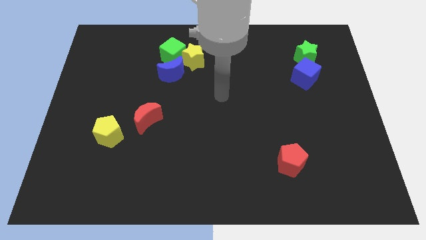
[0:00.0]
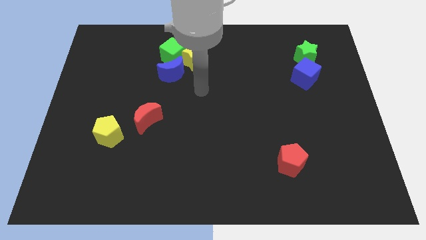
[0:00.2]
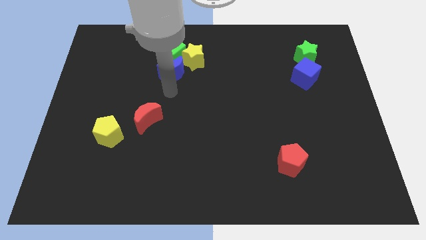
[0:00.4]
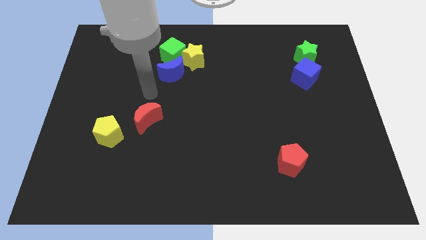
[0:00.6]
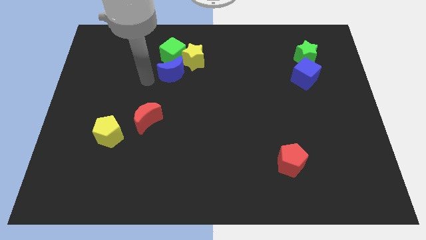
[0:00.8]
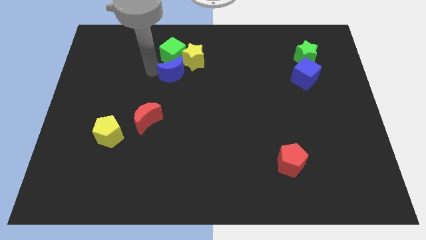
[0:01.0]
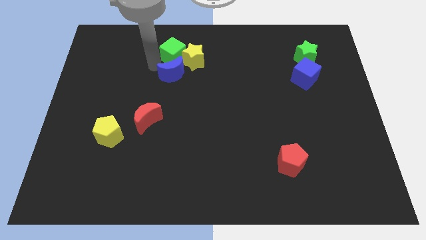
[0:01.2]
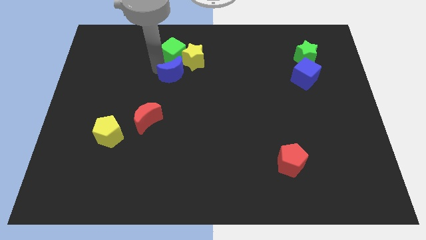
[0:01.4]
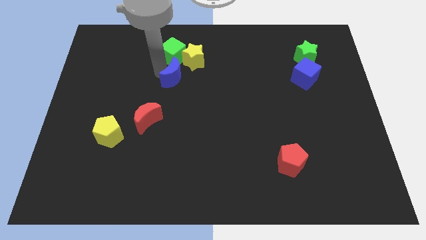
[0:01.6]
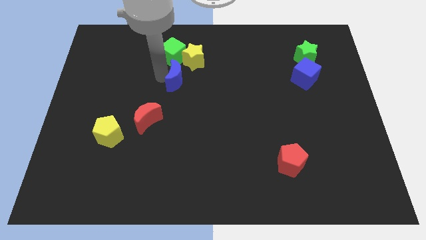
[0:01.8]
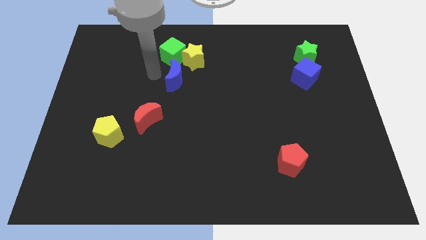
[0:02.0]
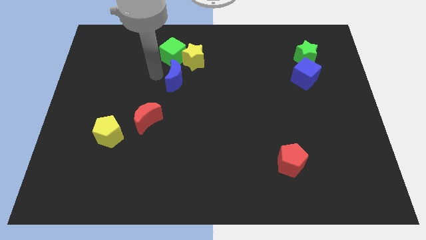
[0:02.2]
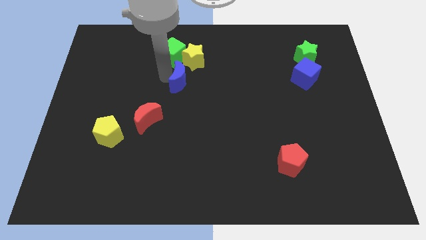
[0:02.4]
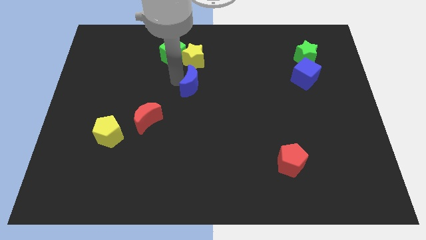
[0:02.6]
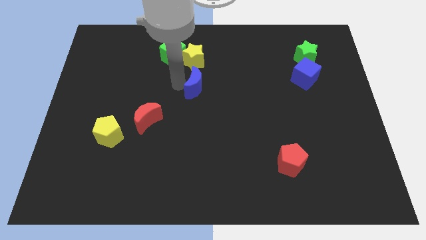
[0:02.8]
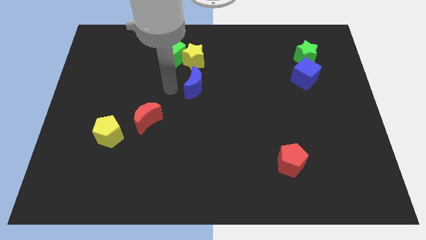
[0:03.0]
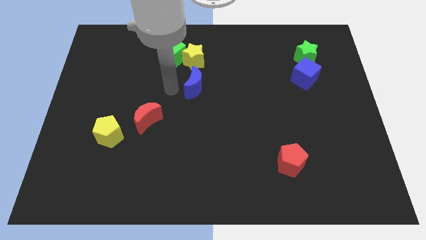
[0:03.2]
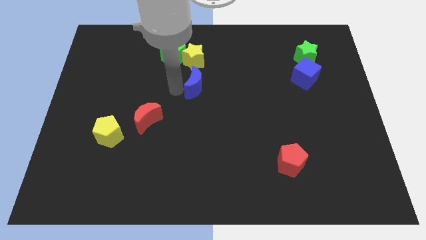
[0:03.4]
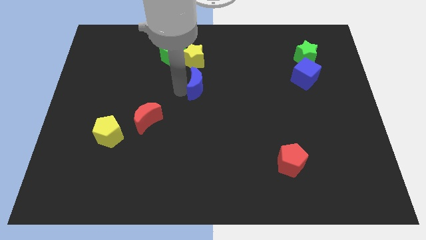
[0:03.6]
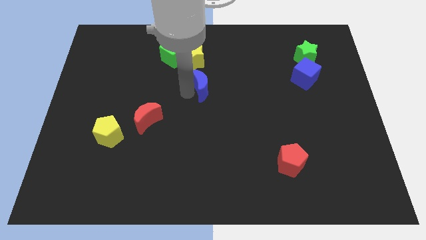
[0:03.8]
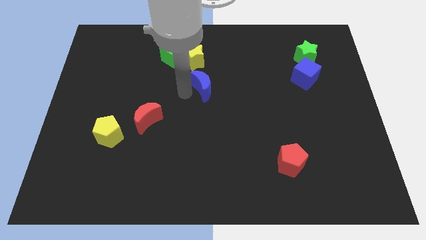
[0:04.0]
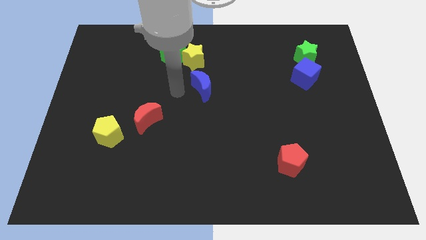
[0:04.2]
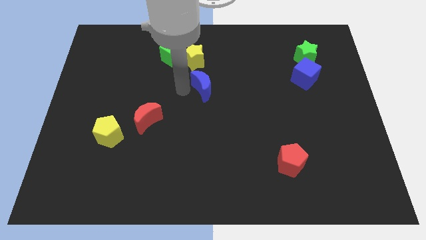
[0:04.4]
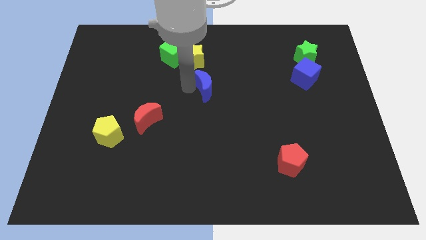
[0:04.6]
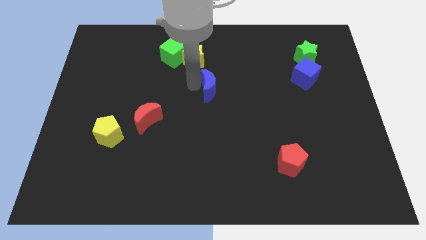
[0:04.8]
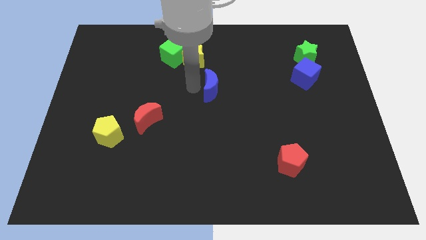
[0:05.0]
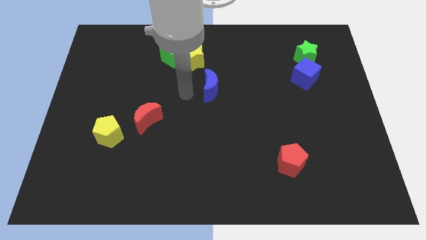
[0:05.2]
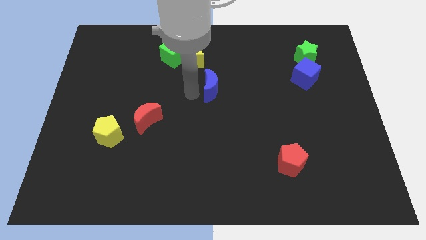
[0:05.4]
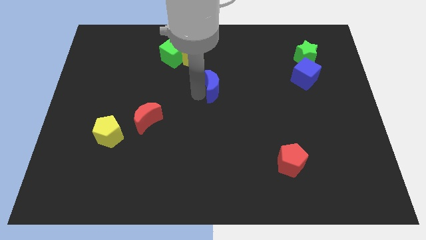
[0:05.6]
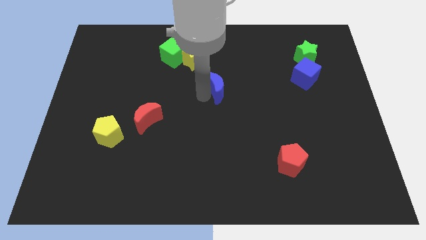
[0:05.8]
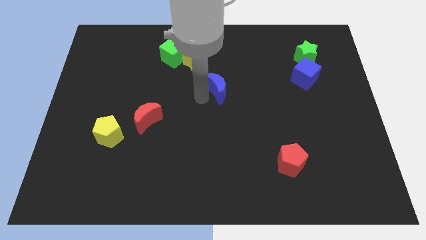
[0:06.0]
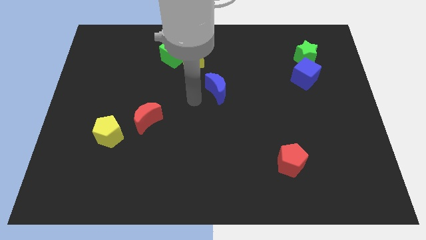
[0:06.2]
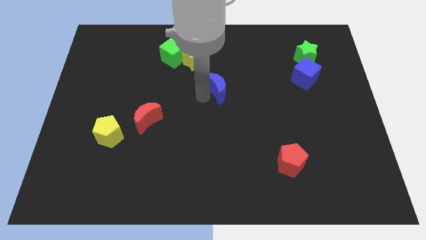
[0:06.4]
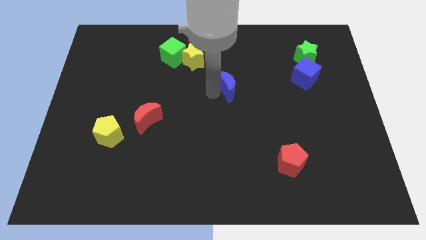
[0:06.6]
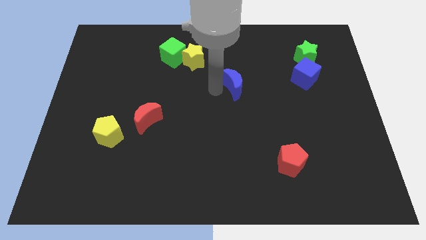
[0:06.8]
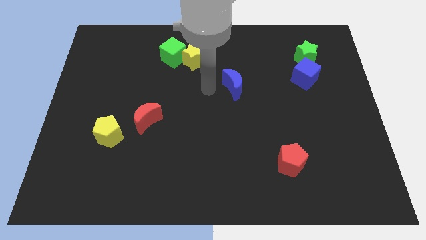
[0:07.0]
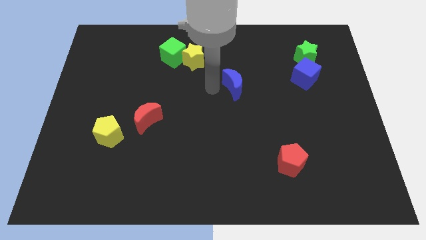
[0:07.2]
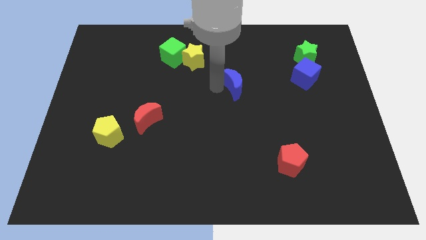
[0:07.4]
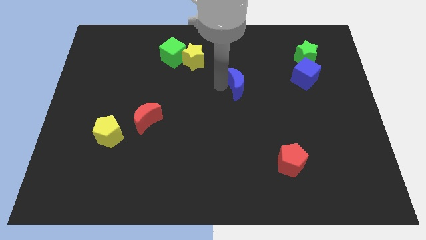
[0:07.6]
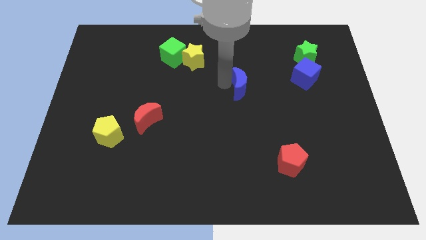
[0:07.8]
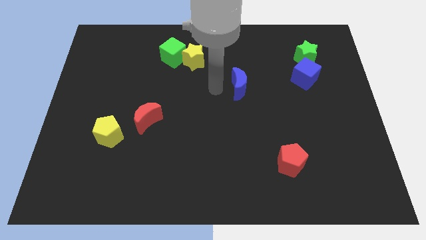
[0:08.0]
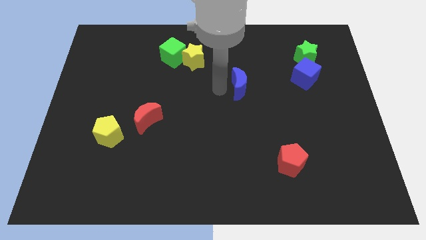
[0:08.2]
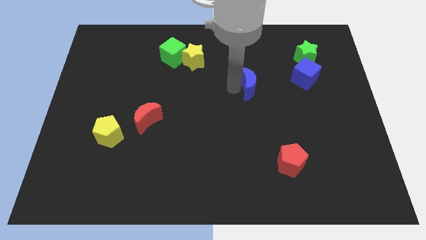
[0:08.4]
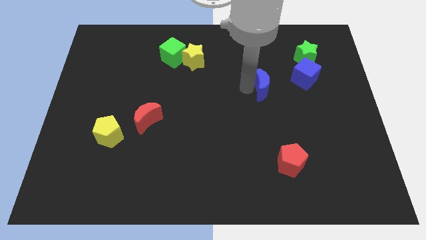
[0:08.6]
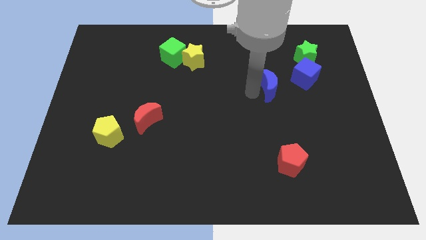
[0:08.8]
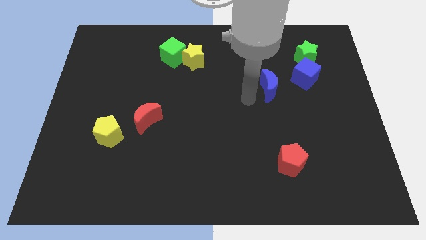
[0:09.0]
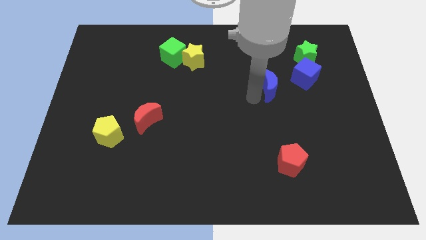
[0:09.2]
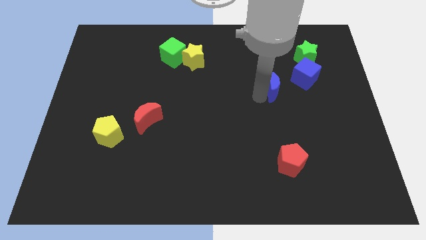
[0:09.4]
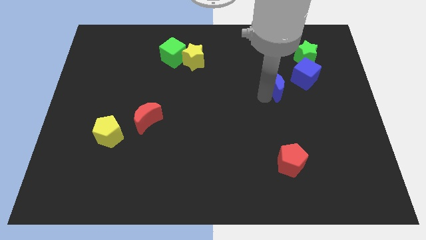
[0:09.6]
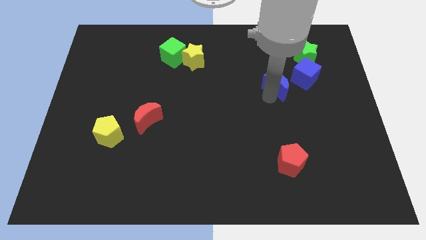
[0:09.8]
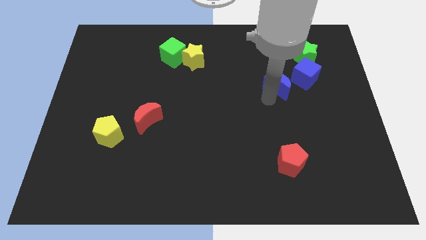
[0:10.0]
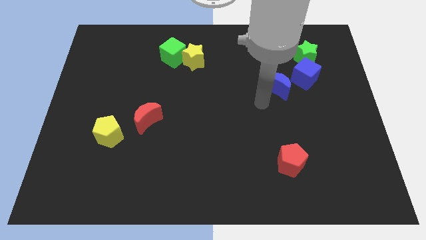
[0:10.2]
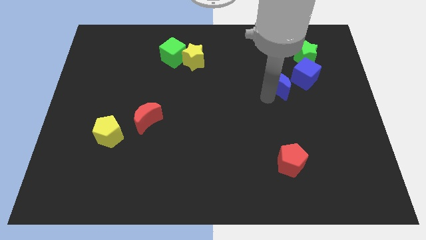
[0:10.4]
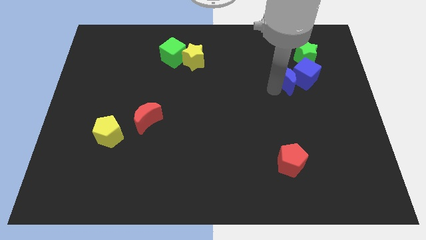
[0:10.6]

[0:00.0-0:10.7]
move the blue moon to the blue cube

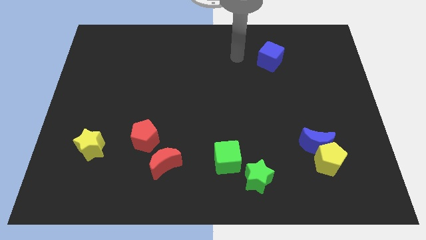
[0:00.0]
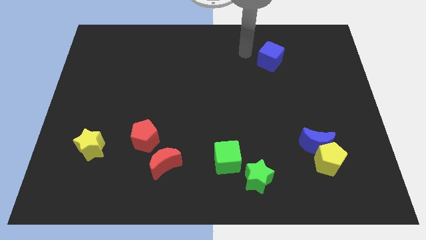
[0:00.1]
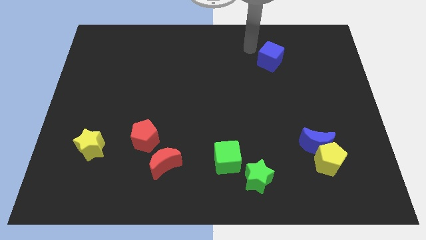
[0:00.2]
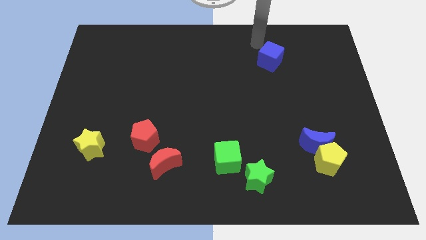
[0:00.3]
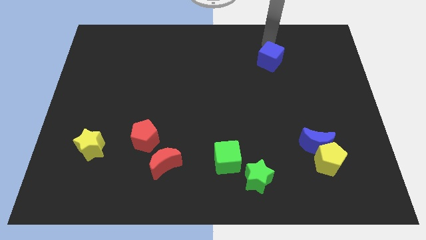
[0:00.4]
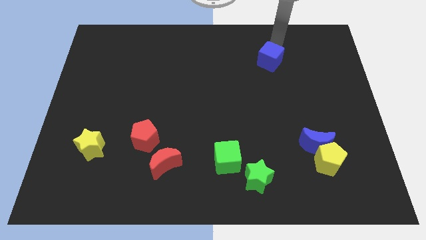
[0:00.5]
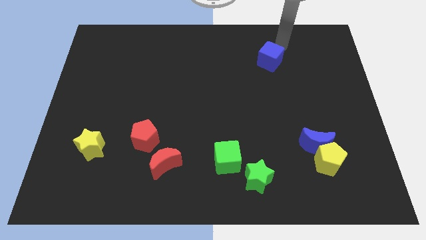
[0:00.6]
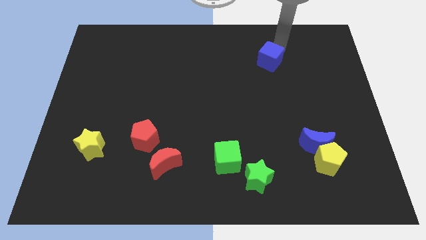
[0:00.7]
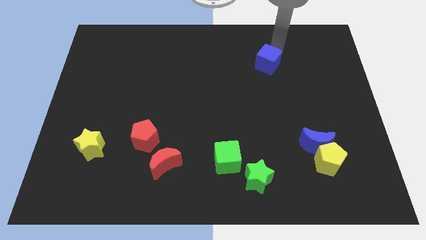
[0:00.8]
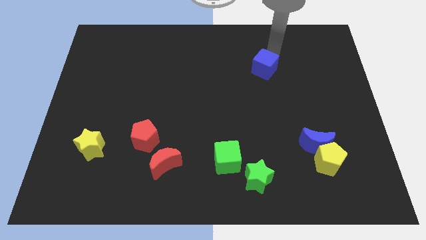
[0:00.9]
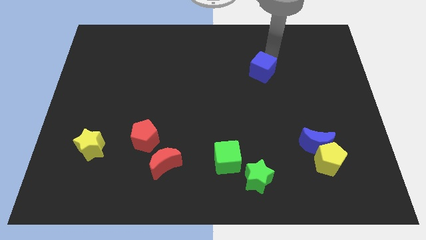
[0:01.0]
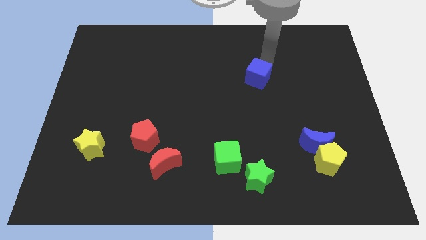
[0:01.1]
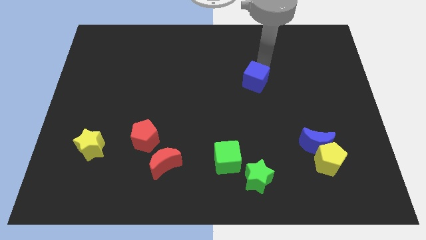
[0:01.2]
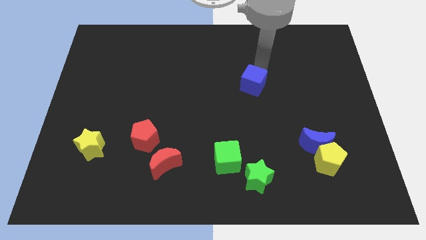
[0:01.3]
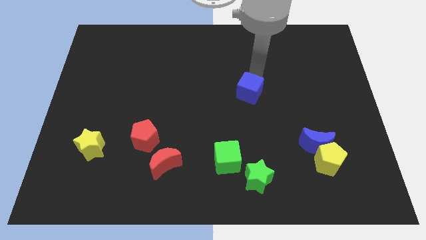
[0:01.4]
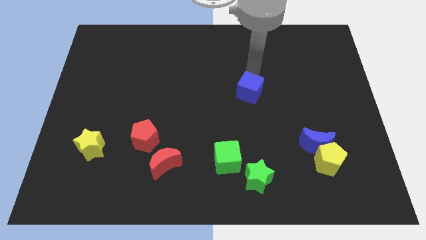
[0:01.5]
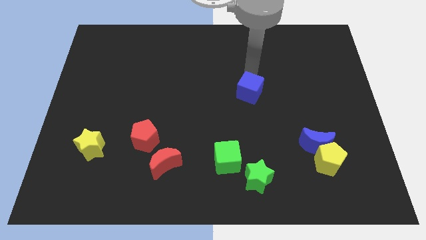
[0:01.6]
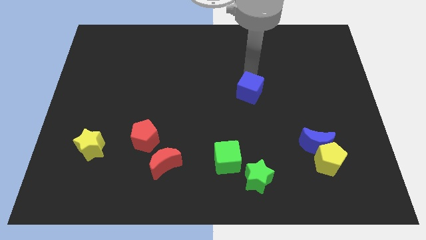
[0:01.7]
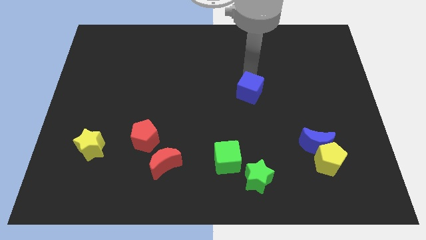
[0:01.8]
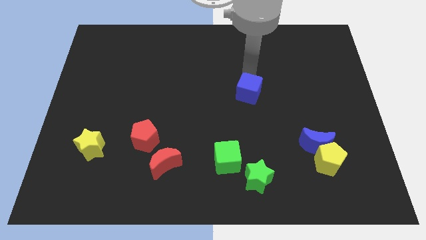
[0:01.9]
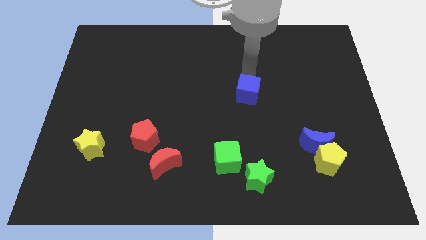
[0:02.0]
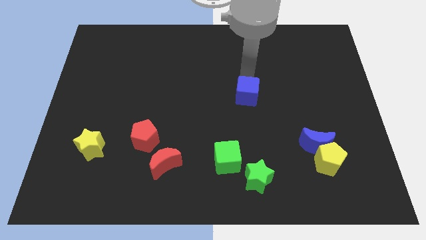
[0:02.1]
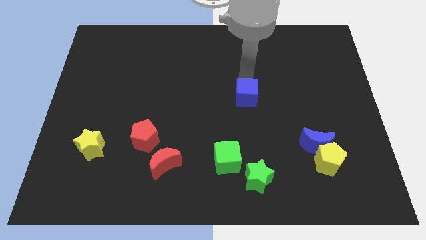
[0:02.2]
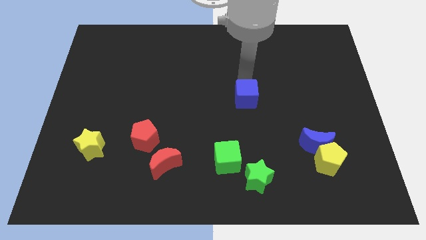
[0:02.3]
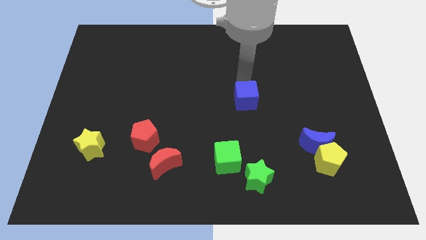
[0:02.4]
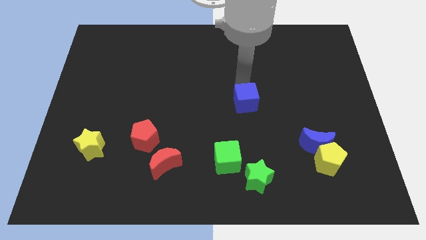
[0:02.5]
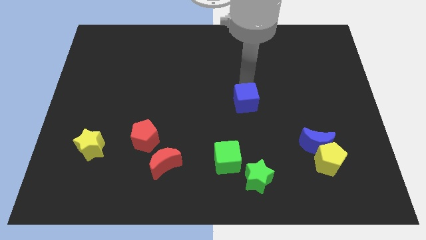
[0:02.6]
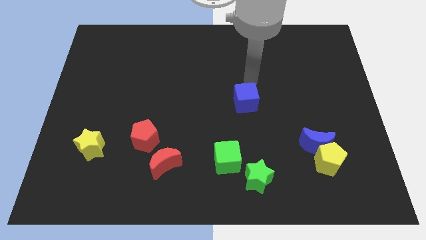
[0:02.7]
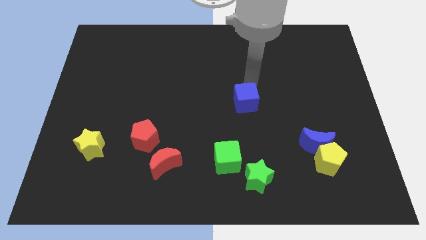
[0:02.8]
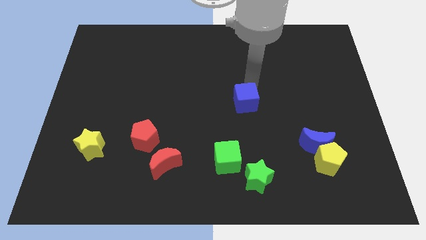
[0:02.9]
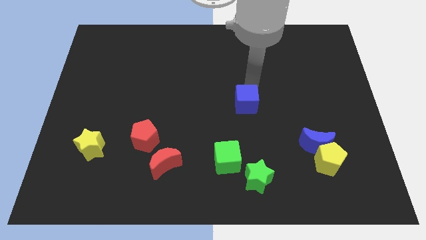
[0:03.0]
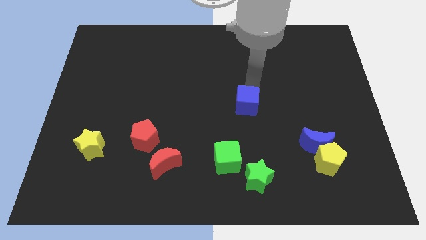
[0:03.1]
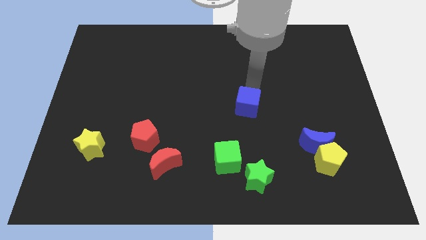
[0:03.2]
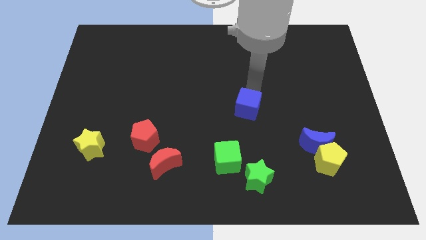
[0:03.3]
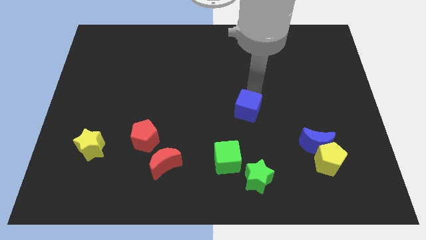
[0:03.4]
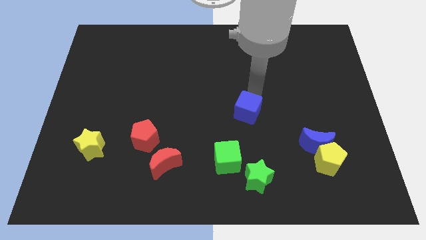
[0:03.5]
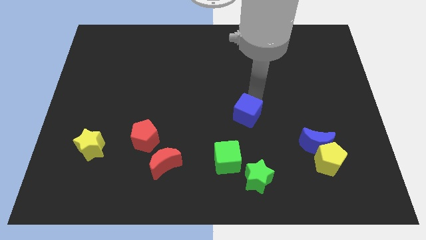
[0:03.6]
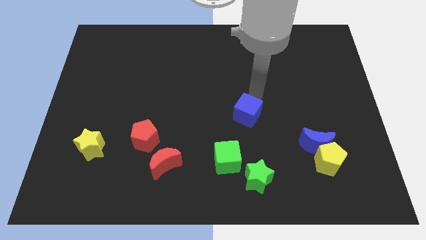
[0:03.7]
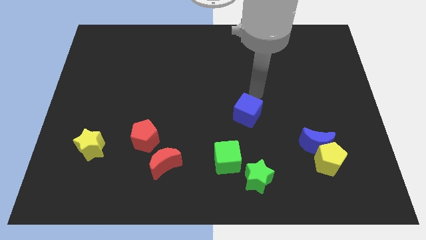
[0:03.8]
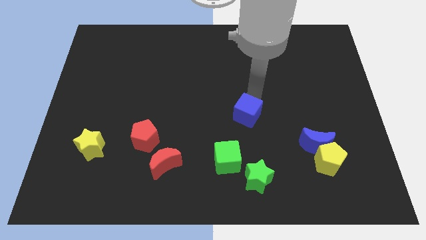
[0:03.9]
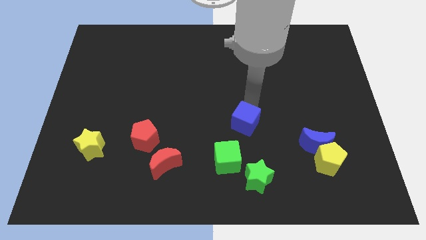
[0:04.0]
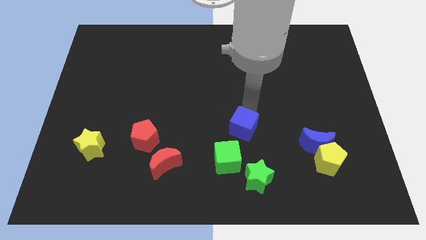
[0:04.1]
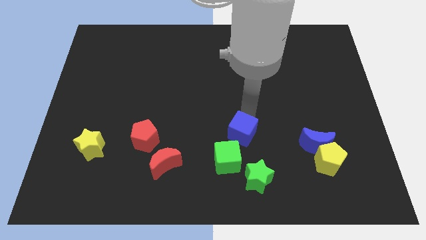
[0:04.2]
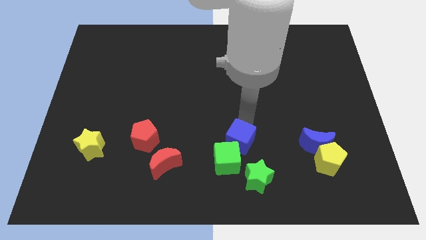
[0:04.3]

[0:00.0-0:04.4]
slide the blue cube close to the green cube
